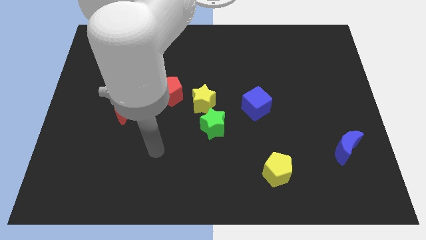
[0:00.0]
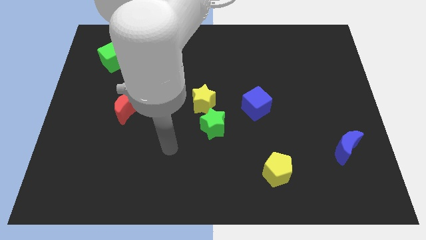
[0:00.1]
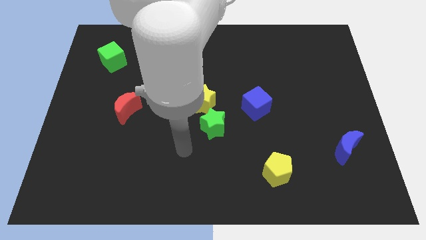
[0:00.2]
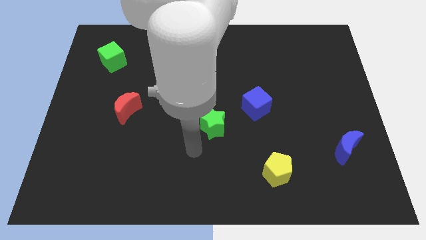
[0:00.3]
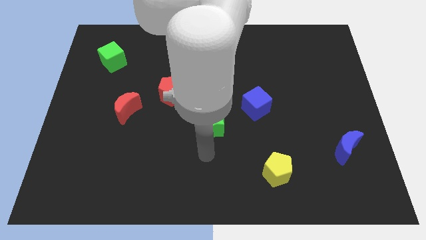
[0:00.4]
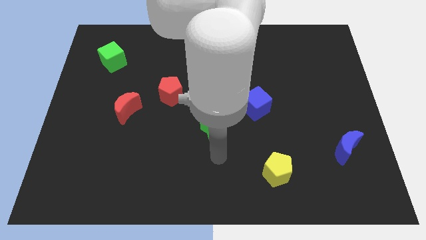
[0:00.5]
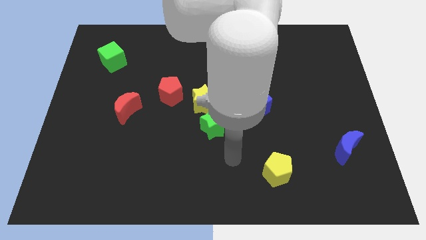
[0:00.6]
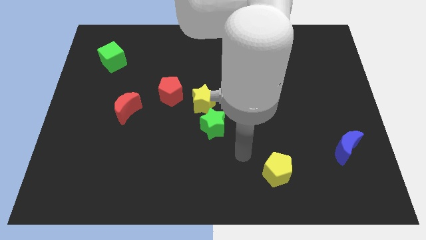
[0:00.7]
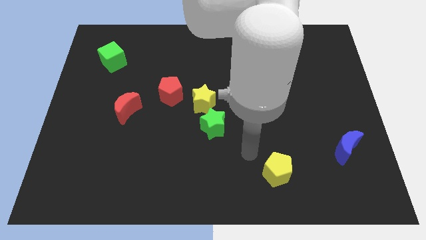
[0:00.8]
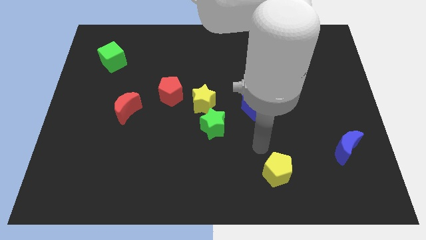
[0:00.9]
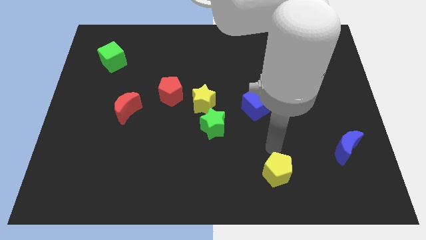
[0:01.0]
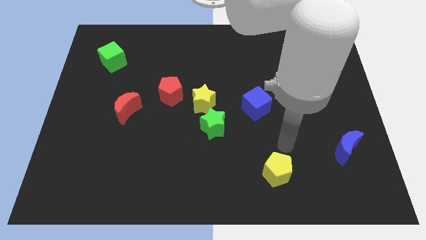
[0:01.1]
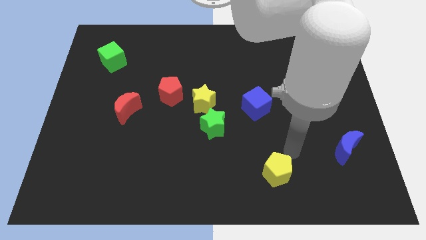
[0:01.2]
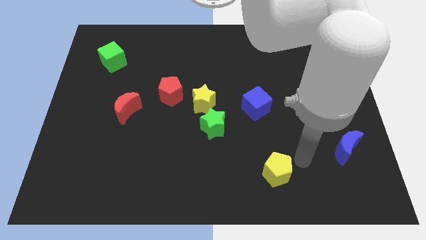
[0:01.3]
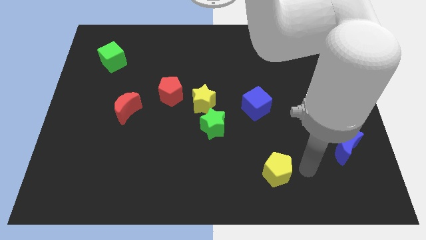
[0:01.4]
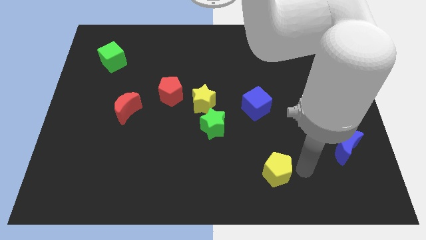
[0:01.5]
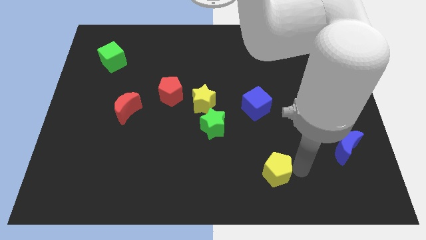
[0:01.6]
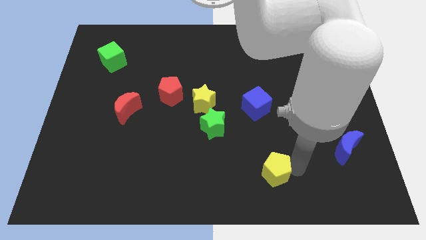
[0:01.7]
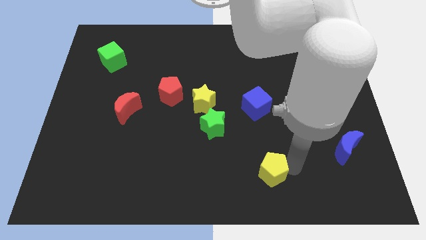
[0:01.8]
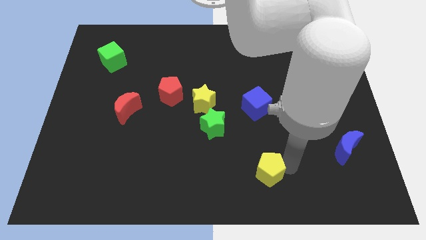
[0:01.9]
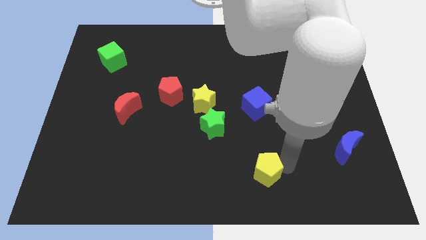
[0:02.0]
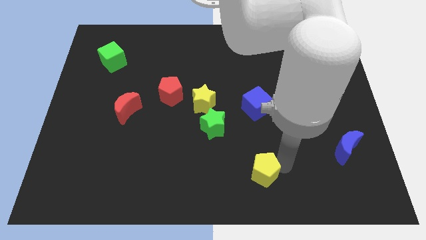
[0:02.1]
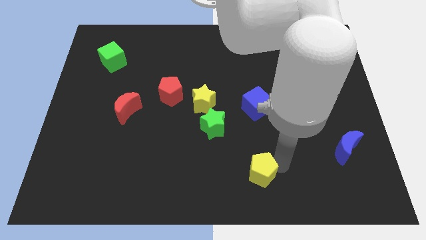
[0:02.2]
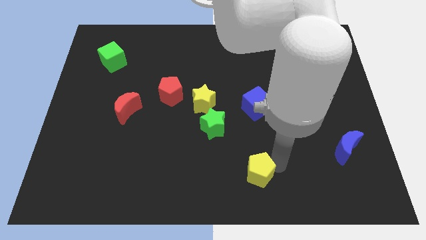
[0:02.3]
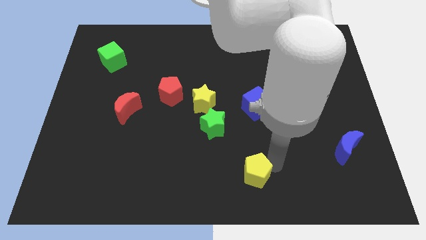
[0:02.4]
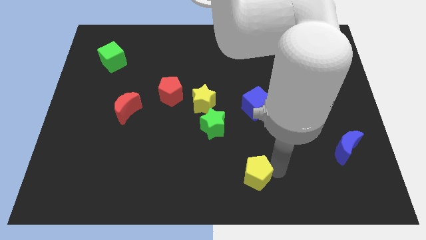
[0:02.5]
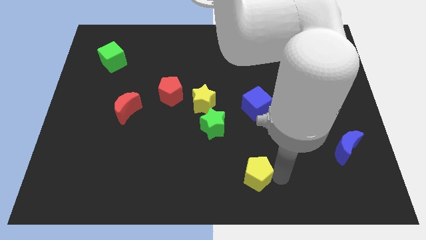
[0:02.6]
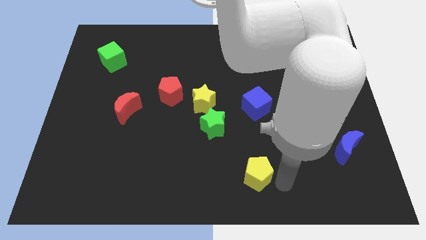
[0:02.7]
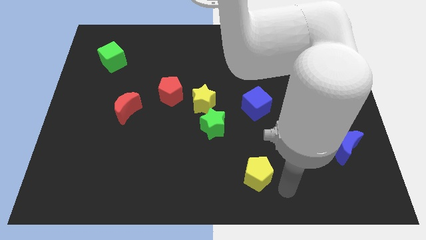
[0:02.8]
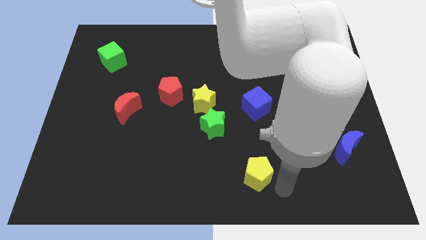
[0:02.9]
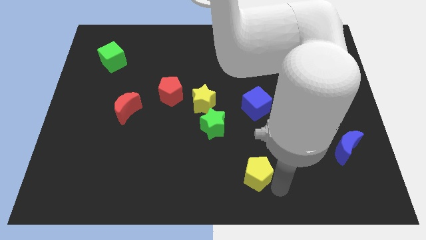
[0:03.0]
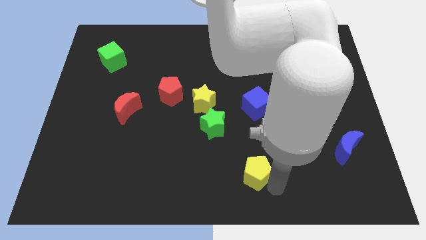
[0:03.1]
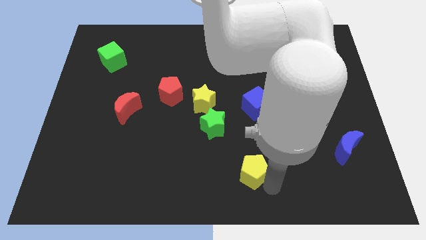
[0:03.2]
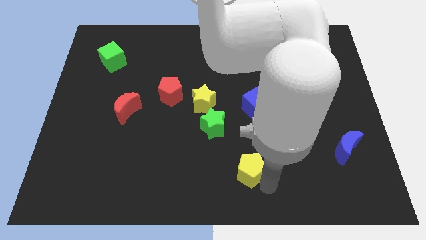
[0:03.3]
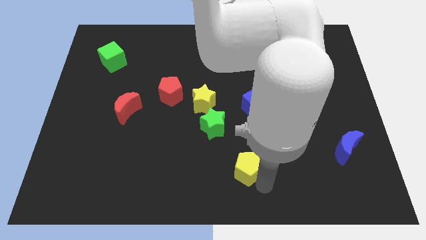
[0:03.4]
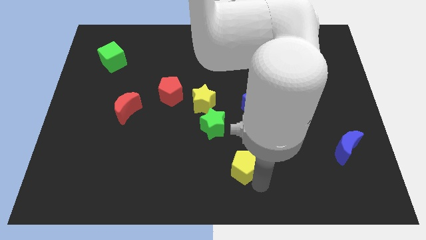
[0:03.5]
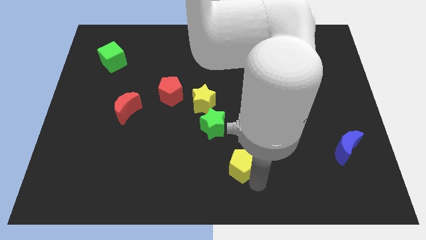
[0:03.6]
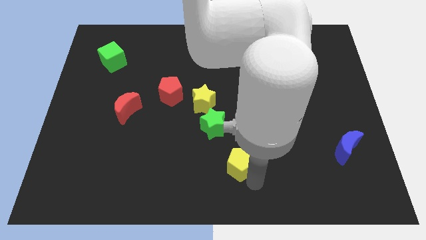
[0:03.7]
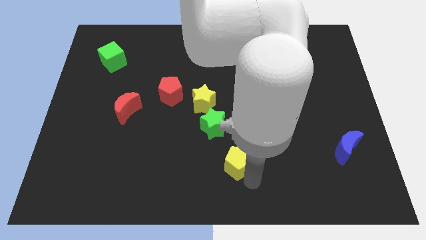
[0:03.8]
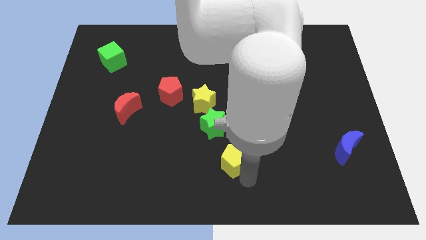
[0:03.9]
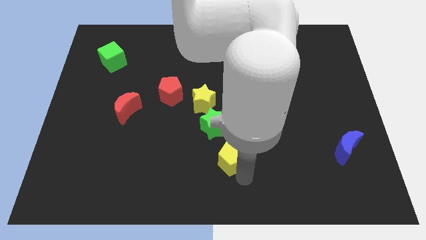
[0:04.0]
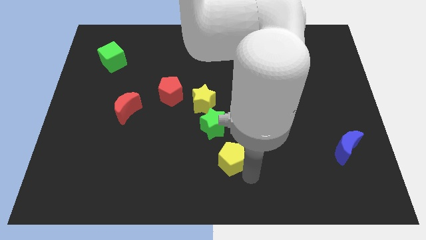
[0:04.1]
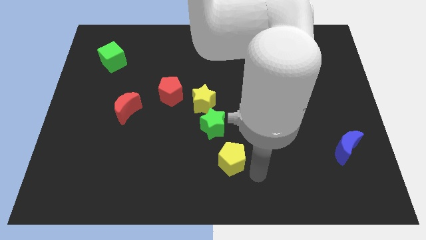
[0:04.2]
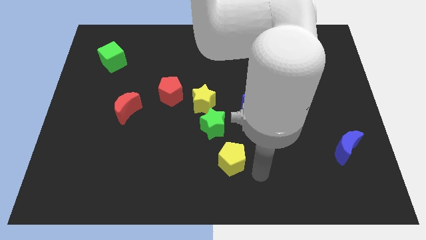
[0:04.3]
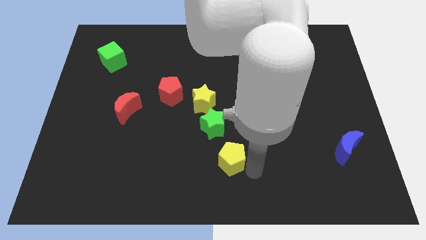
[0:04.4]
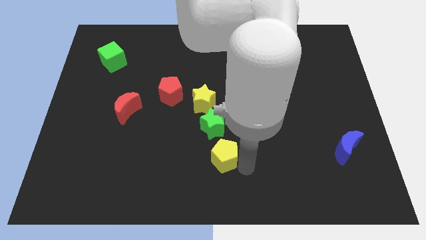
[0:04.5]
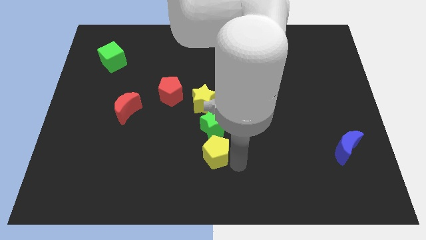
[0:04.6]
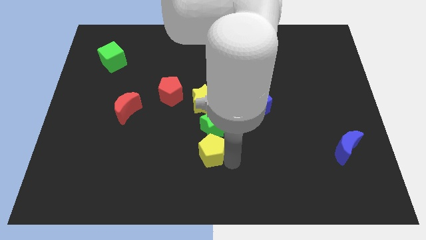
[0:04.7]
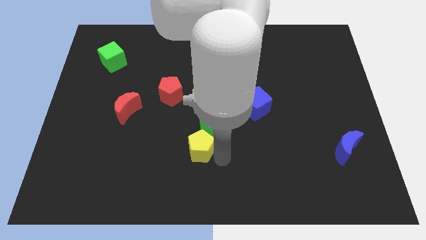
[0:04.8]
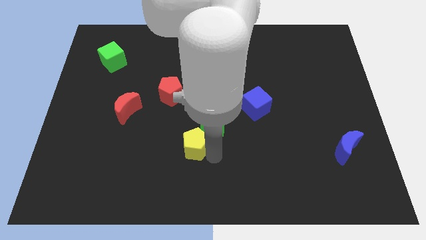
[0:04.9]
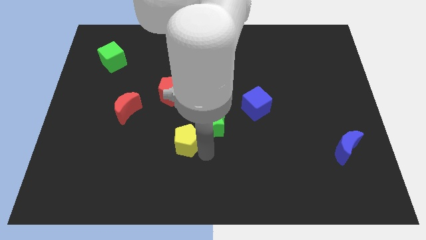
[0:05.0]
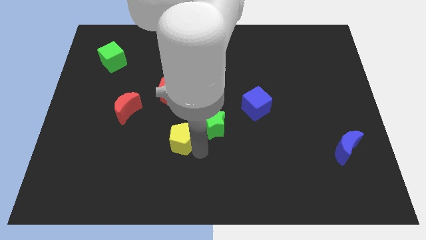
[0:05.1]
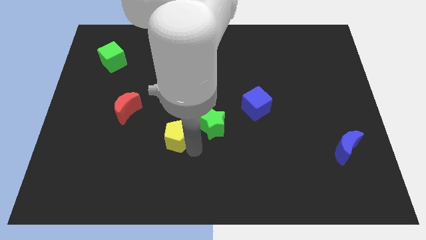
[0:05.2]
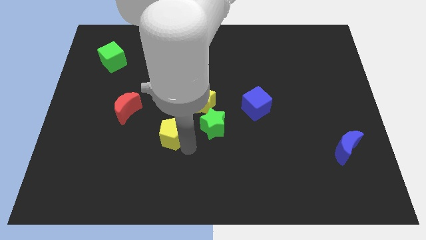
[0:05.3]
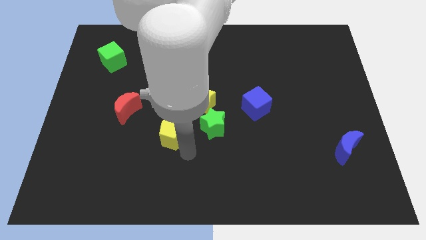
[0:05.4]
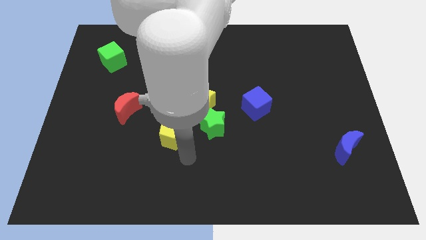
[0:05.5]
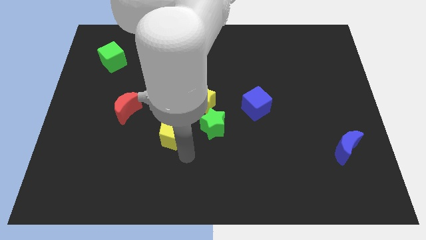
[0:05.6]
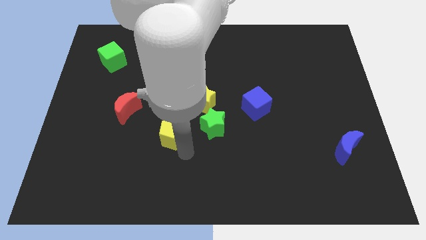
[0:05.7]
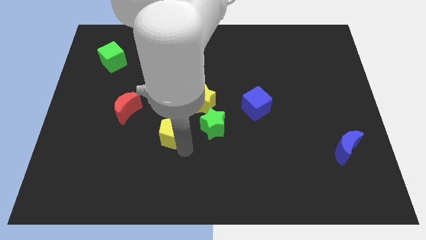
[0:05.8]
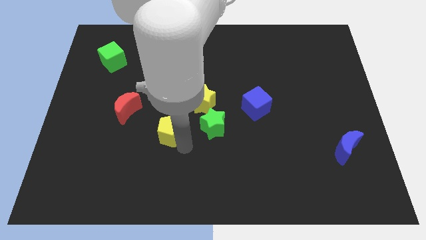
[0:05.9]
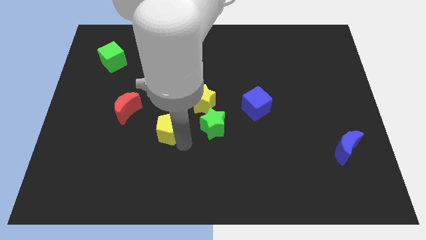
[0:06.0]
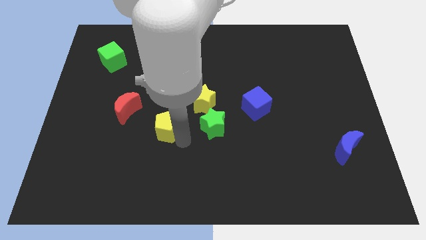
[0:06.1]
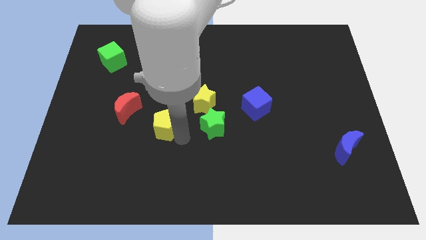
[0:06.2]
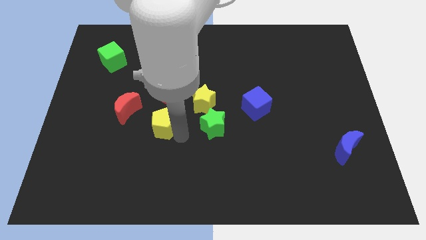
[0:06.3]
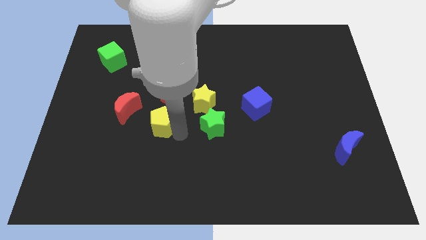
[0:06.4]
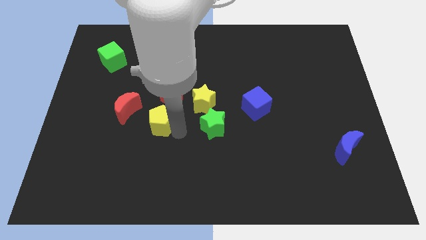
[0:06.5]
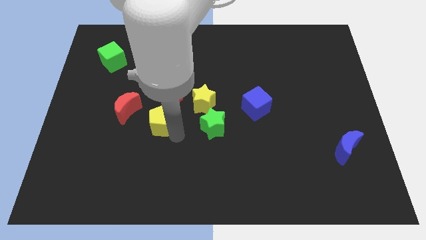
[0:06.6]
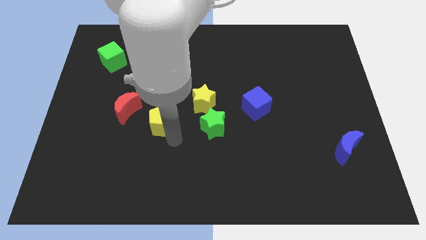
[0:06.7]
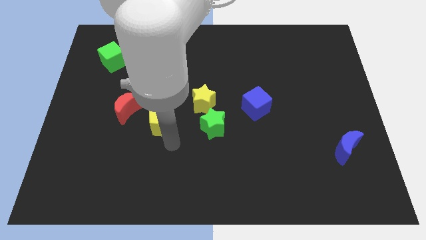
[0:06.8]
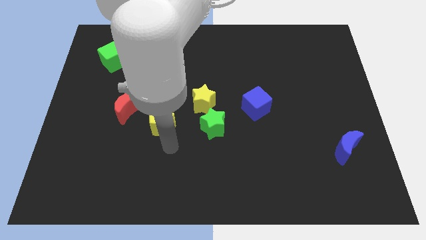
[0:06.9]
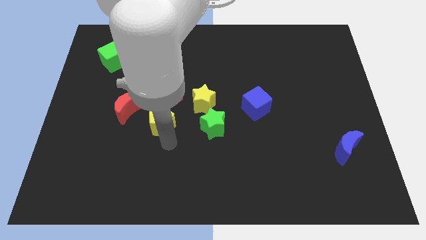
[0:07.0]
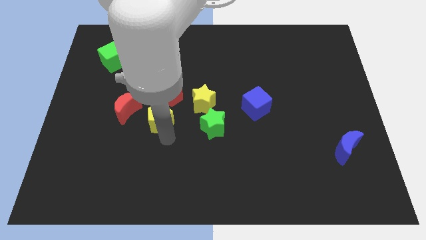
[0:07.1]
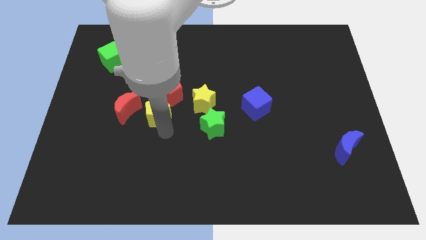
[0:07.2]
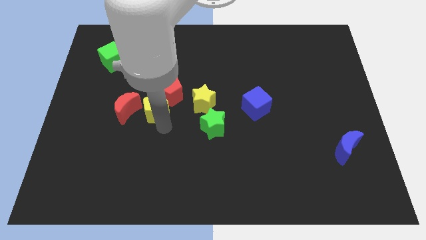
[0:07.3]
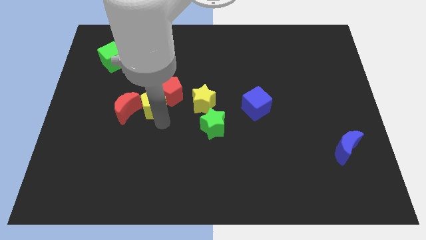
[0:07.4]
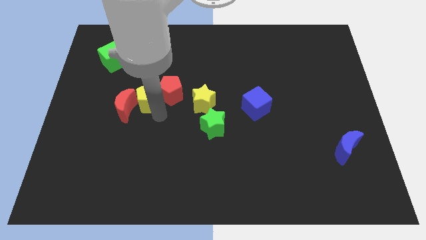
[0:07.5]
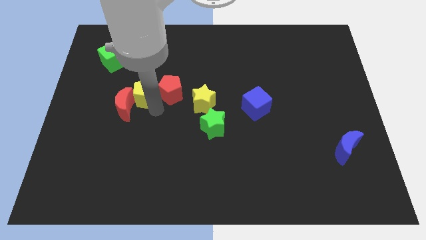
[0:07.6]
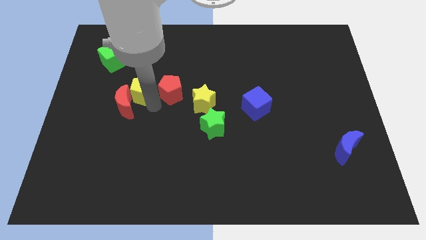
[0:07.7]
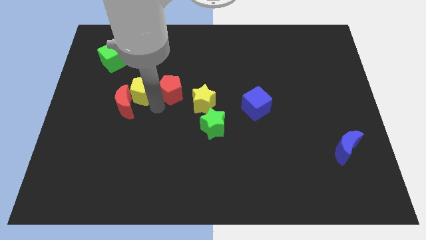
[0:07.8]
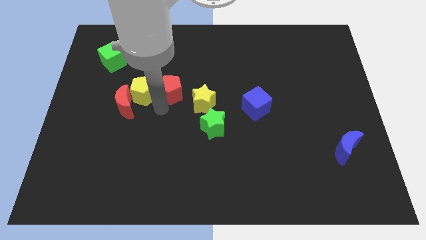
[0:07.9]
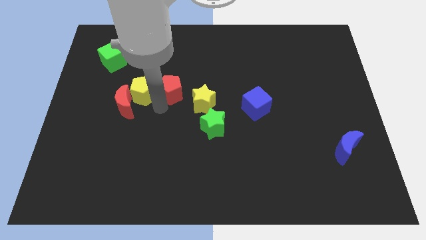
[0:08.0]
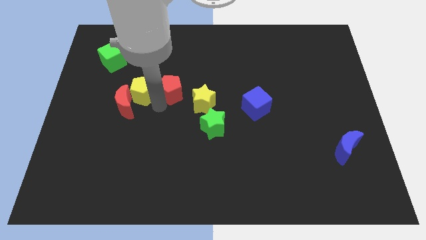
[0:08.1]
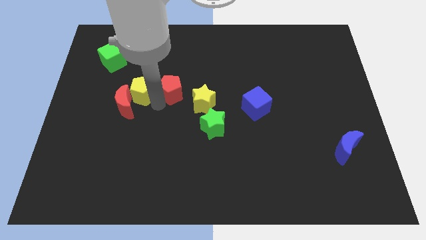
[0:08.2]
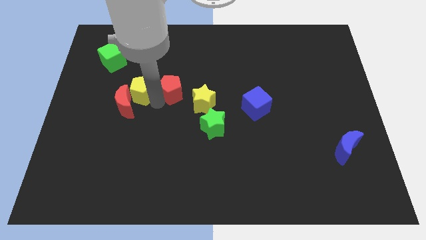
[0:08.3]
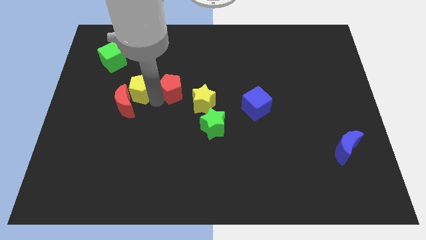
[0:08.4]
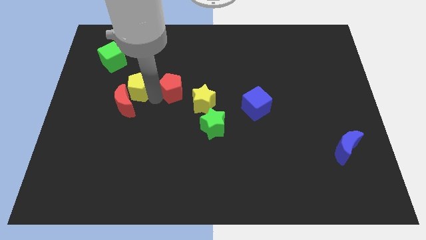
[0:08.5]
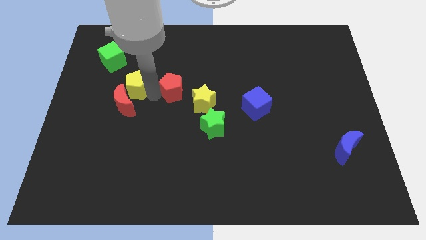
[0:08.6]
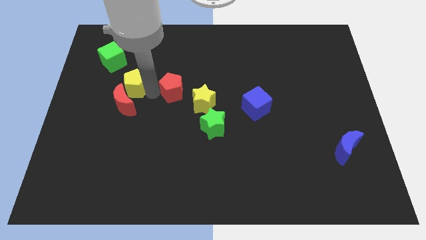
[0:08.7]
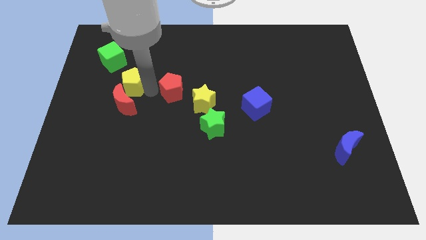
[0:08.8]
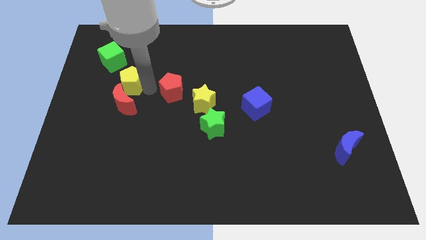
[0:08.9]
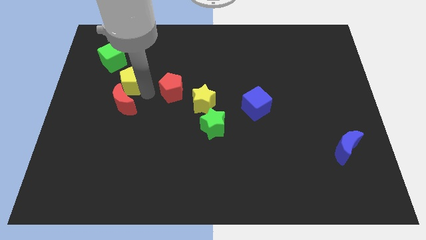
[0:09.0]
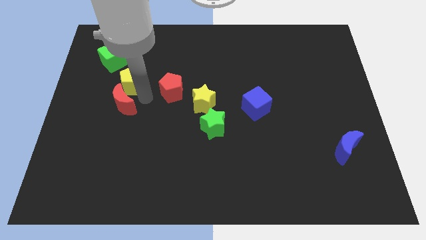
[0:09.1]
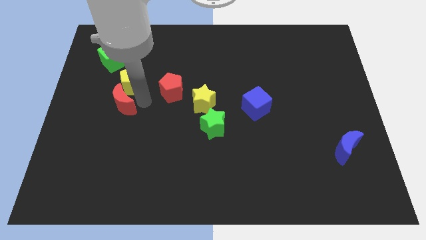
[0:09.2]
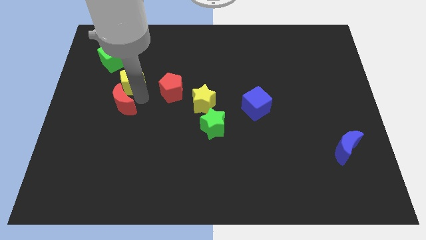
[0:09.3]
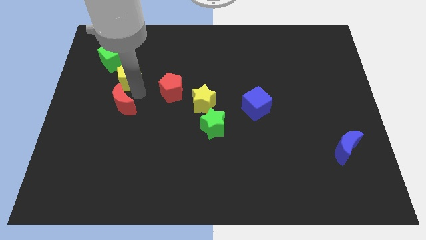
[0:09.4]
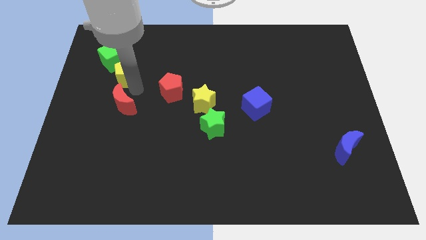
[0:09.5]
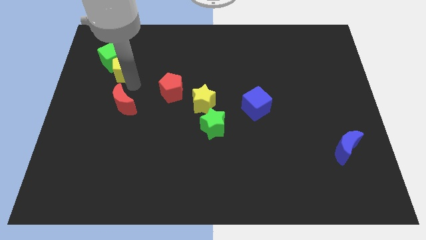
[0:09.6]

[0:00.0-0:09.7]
push the yellow pentagon towards the green cube
